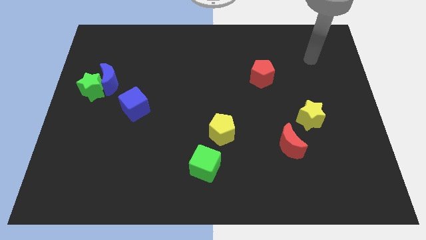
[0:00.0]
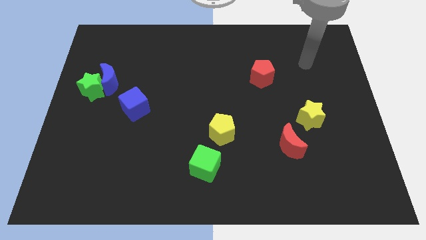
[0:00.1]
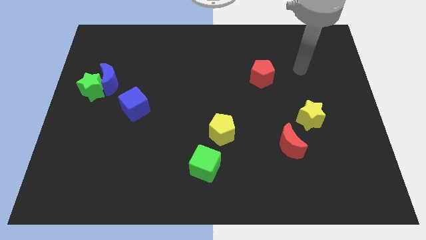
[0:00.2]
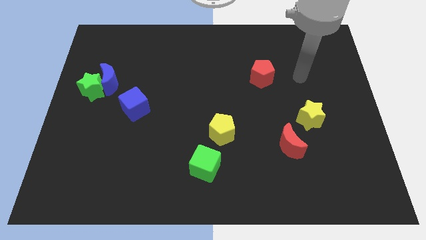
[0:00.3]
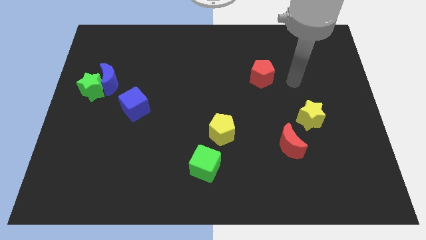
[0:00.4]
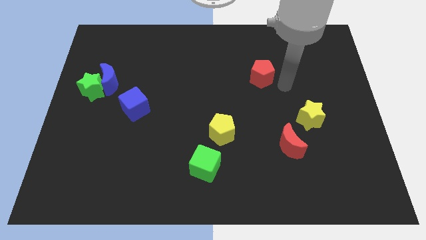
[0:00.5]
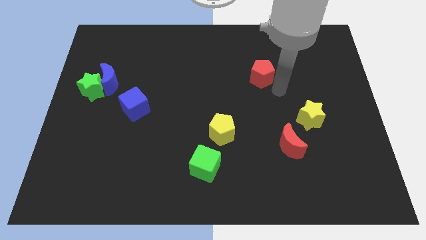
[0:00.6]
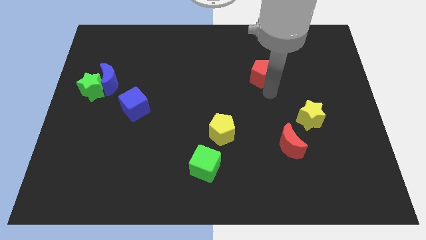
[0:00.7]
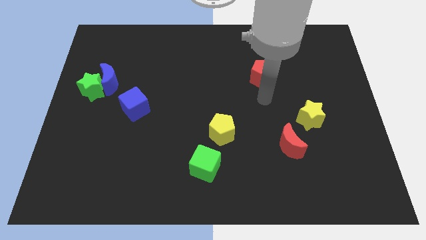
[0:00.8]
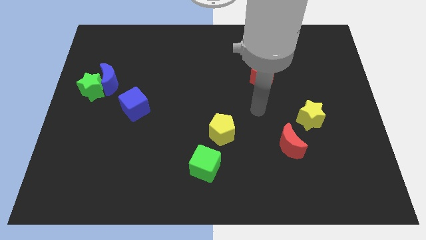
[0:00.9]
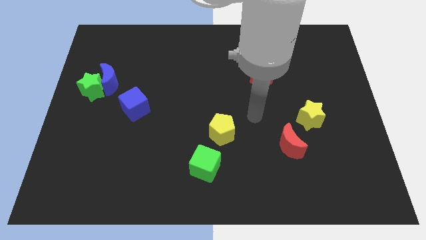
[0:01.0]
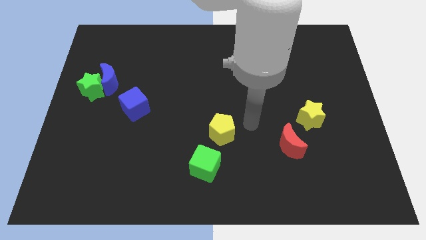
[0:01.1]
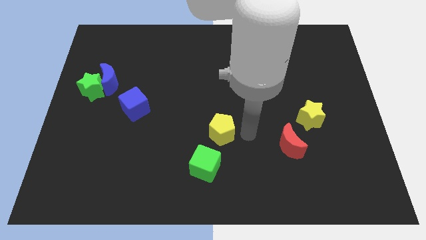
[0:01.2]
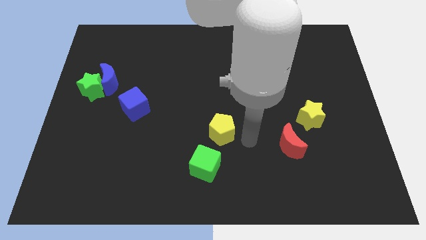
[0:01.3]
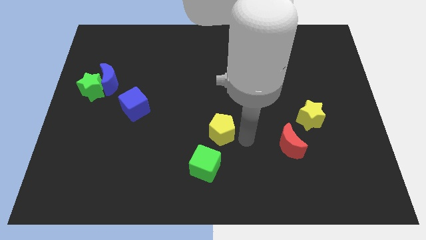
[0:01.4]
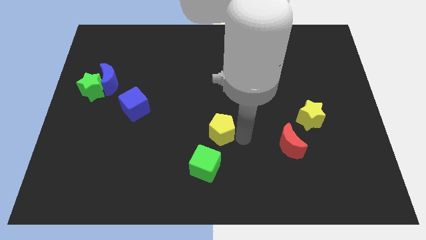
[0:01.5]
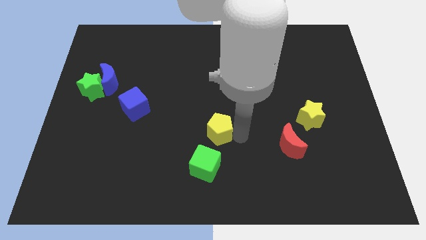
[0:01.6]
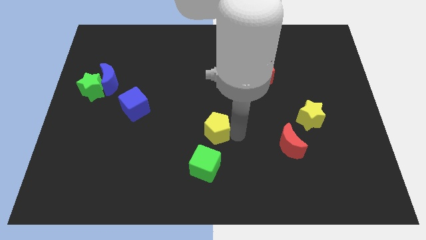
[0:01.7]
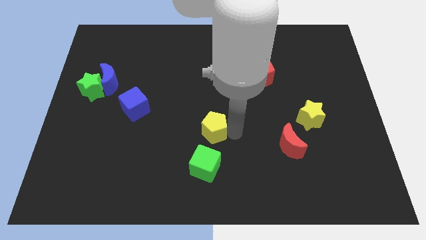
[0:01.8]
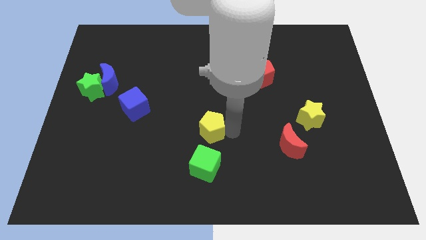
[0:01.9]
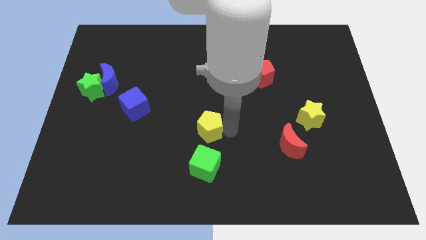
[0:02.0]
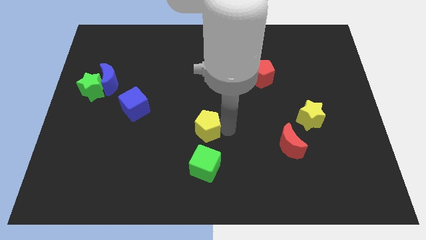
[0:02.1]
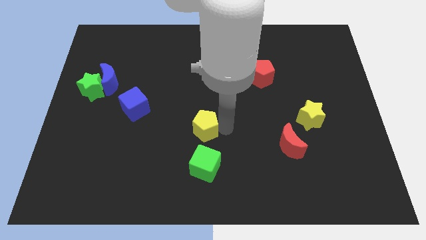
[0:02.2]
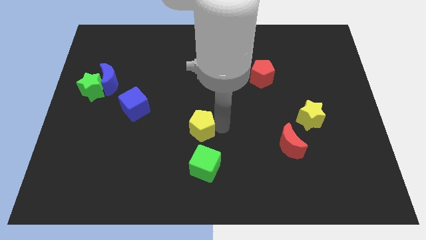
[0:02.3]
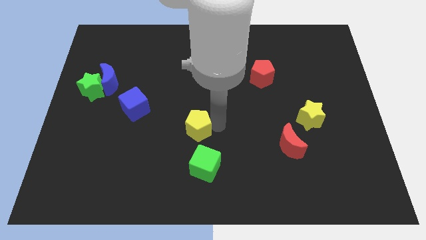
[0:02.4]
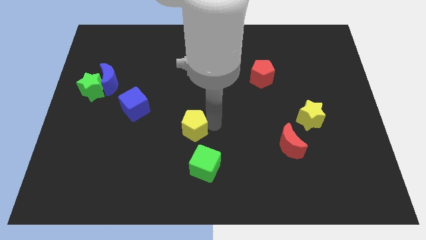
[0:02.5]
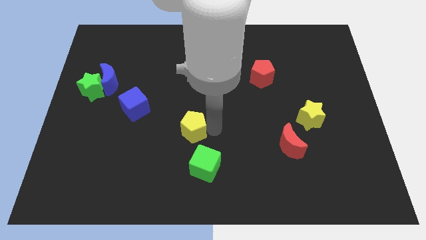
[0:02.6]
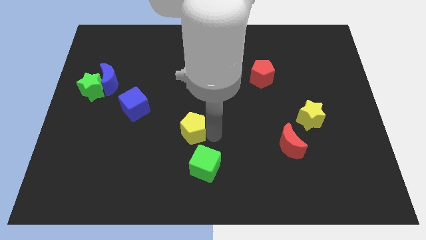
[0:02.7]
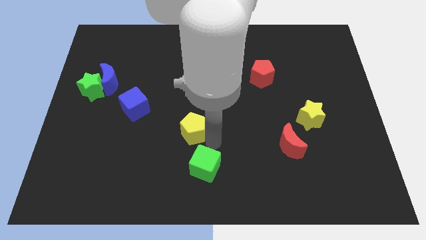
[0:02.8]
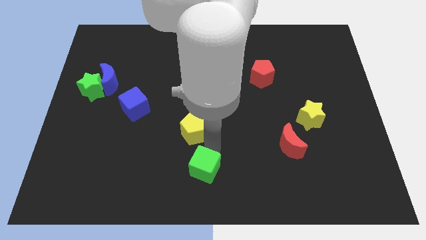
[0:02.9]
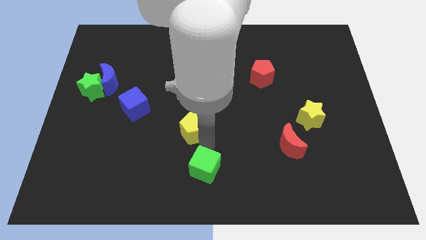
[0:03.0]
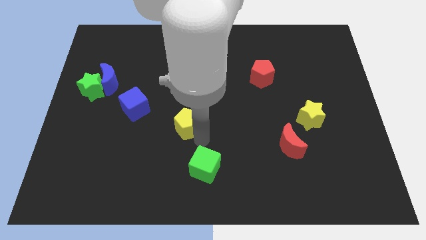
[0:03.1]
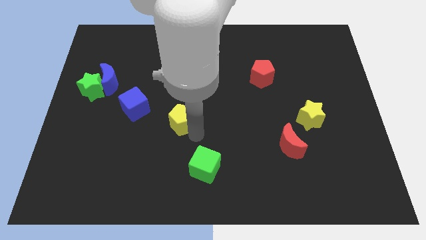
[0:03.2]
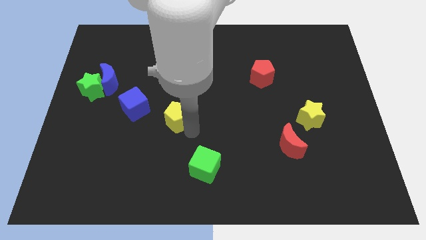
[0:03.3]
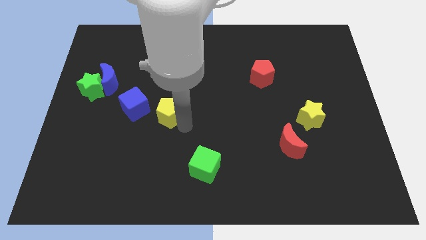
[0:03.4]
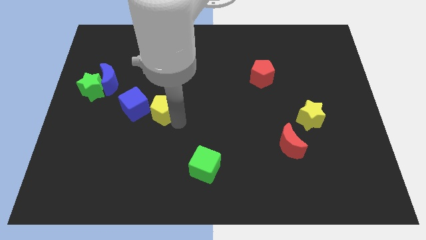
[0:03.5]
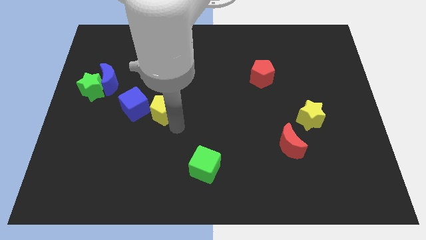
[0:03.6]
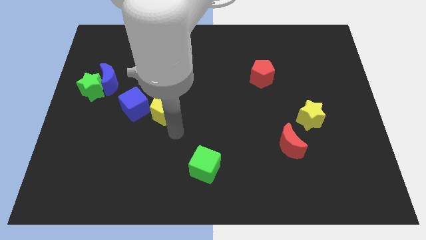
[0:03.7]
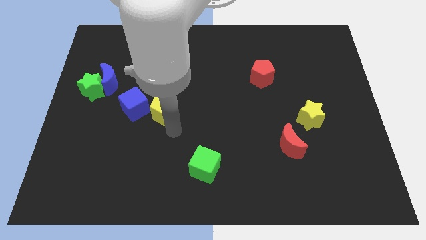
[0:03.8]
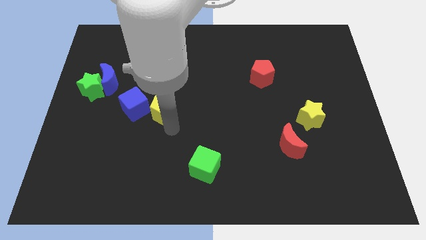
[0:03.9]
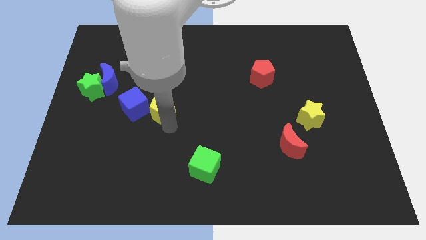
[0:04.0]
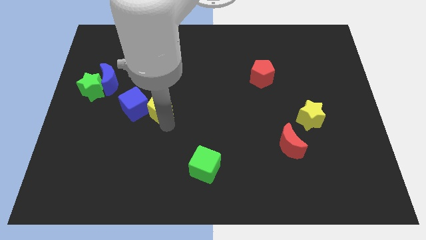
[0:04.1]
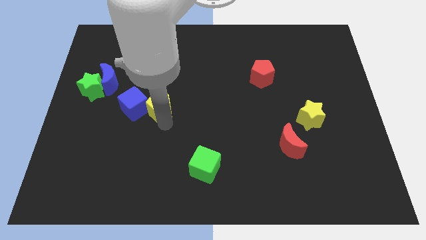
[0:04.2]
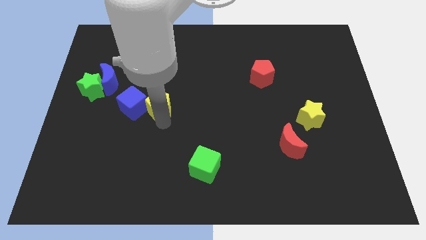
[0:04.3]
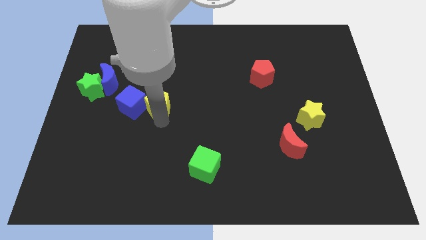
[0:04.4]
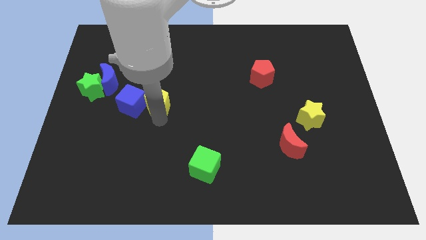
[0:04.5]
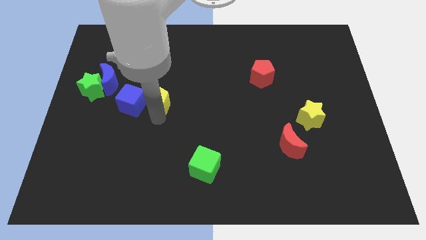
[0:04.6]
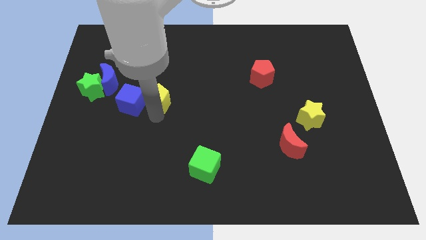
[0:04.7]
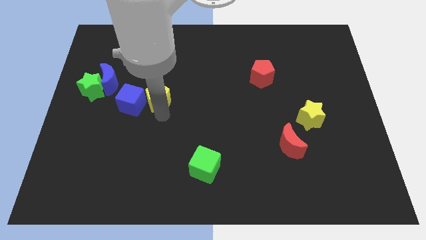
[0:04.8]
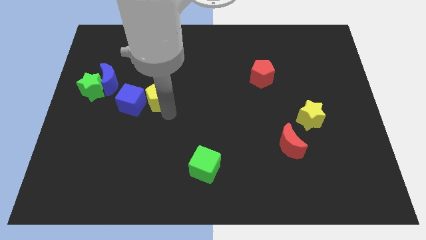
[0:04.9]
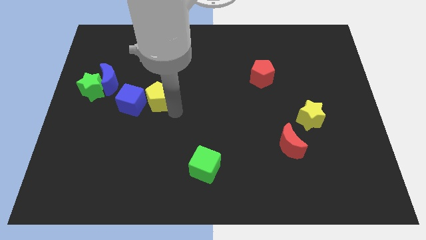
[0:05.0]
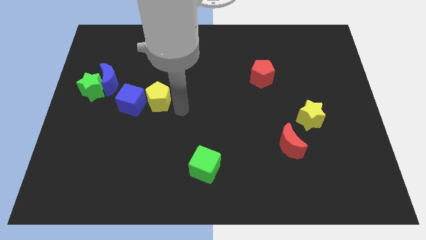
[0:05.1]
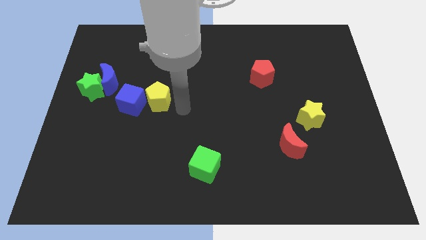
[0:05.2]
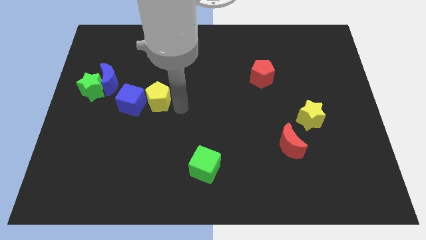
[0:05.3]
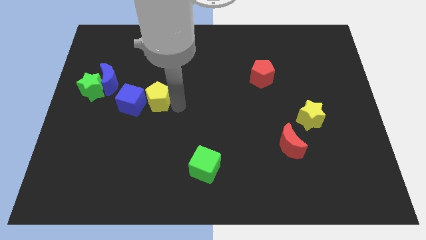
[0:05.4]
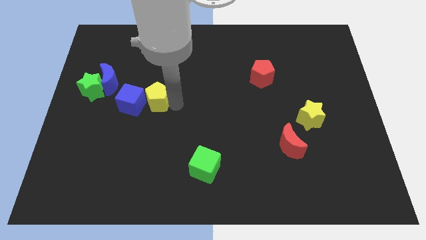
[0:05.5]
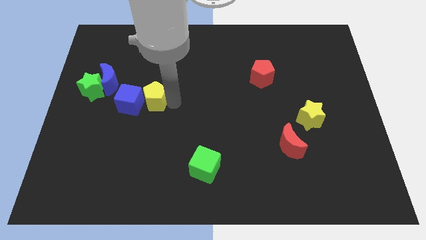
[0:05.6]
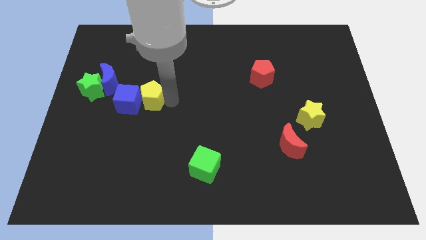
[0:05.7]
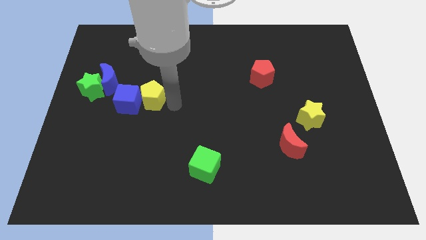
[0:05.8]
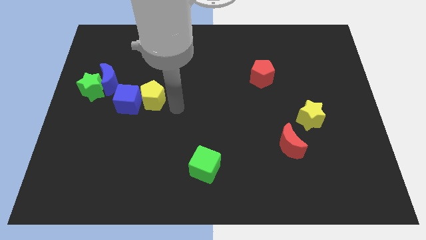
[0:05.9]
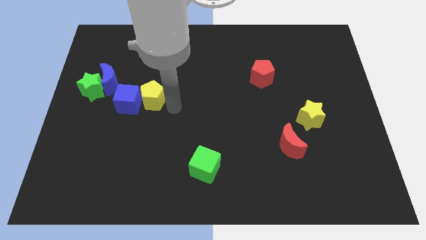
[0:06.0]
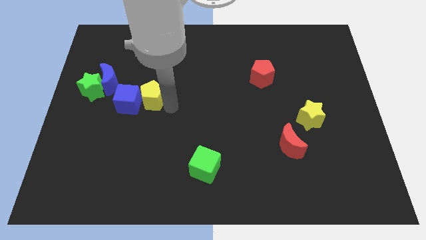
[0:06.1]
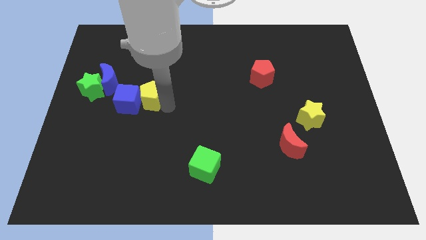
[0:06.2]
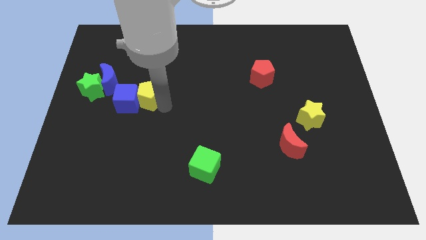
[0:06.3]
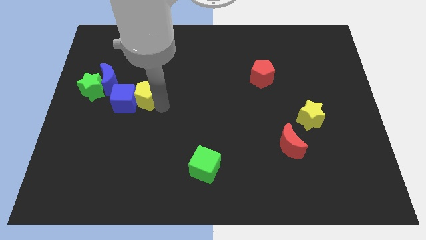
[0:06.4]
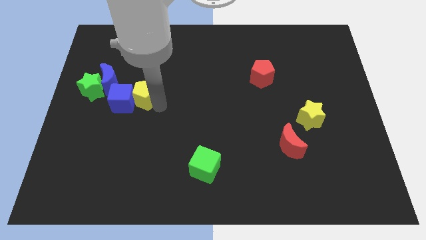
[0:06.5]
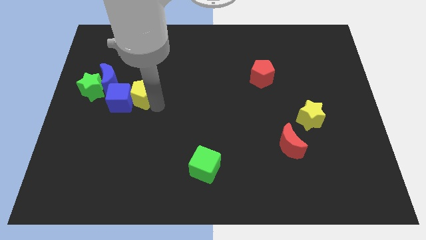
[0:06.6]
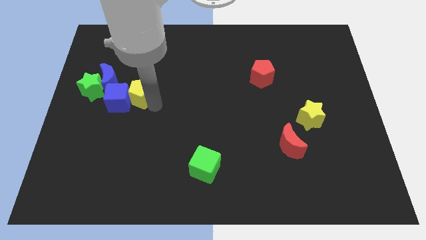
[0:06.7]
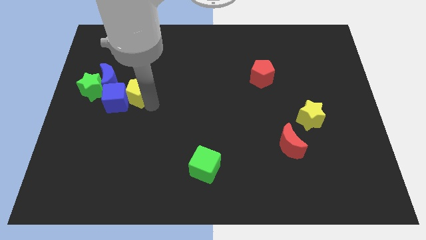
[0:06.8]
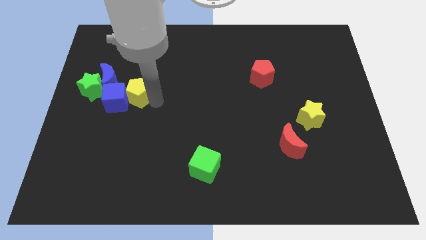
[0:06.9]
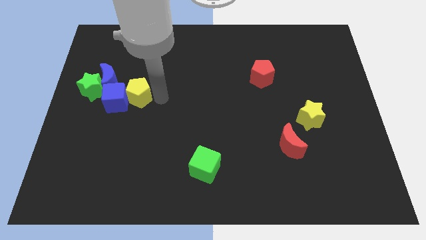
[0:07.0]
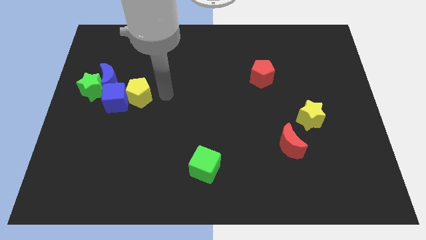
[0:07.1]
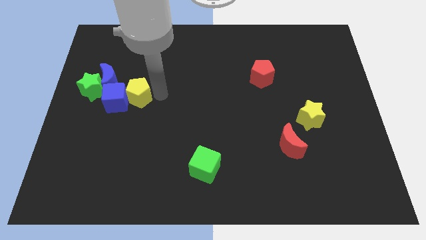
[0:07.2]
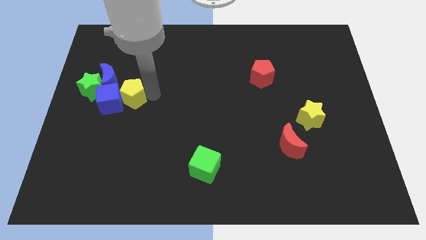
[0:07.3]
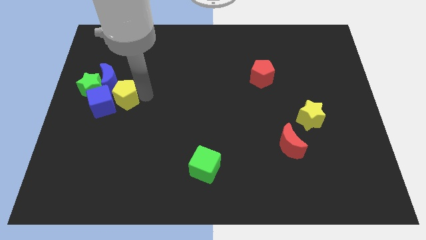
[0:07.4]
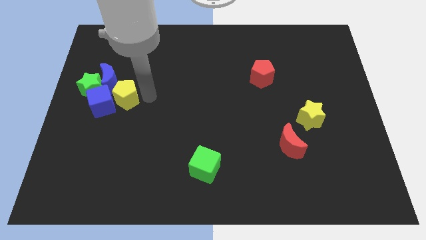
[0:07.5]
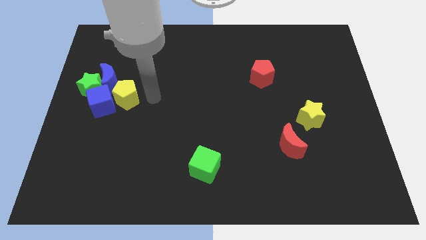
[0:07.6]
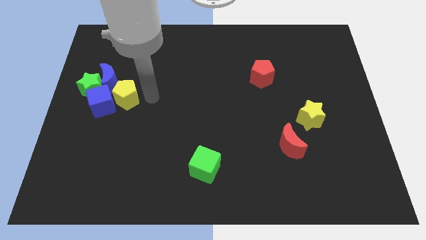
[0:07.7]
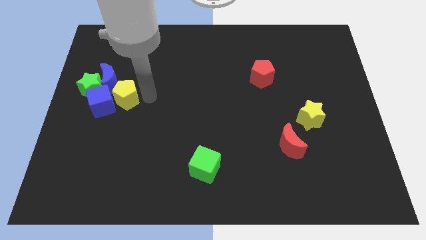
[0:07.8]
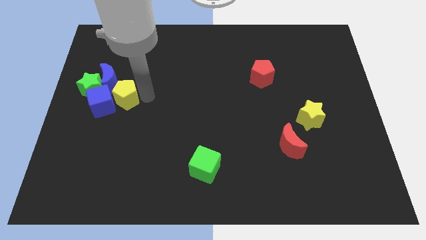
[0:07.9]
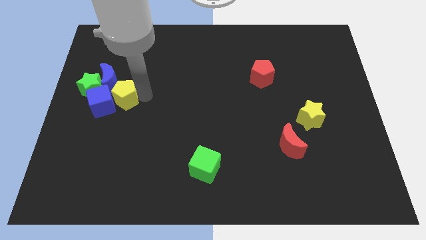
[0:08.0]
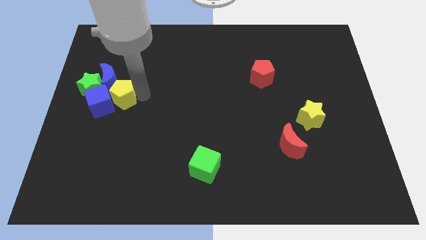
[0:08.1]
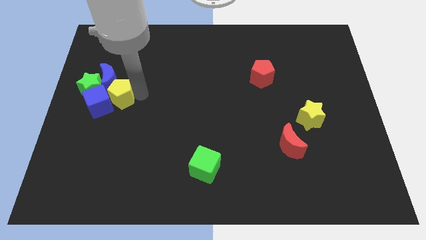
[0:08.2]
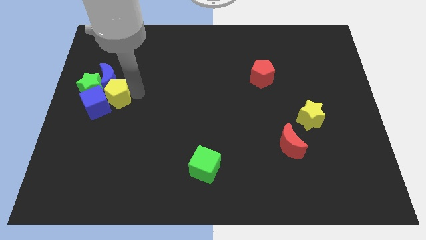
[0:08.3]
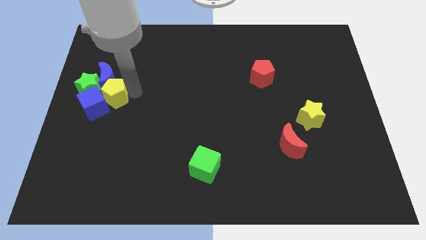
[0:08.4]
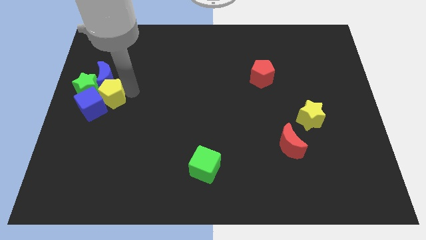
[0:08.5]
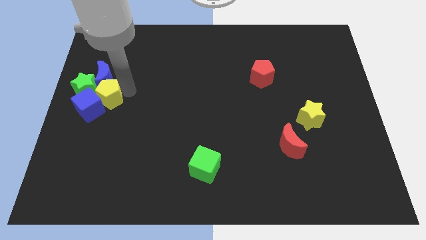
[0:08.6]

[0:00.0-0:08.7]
move the yellow pentagon close to the green star
